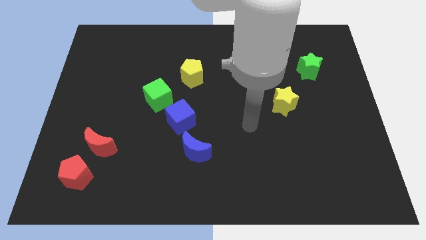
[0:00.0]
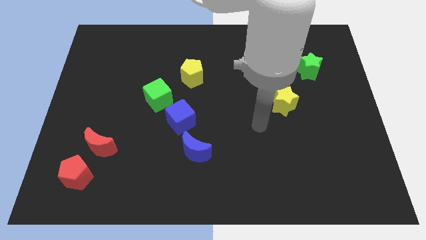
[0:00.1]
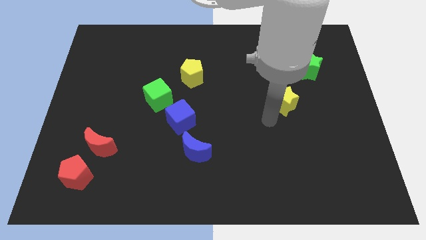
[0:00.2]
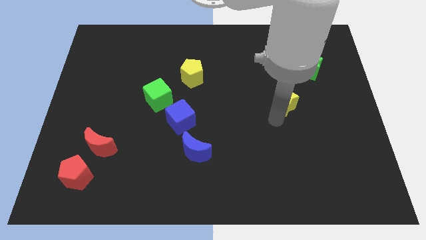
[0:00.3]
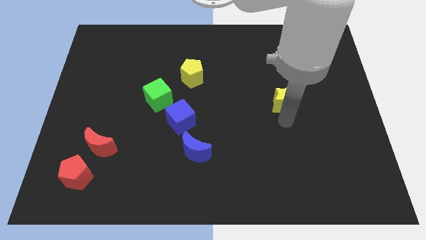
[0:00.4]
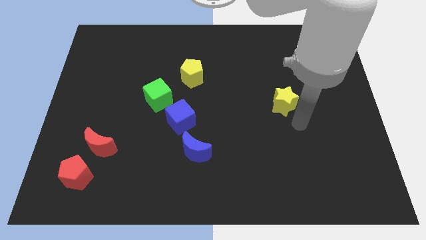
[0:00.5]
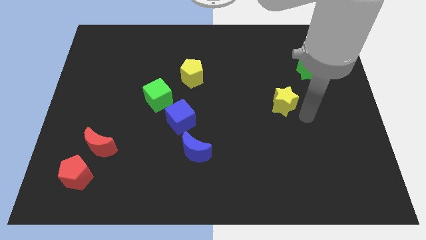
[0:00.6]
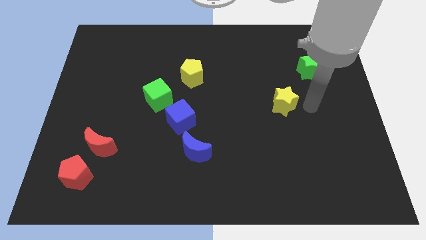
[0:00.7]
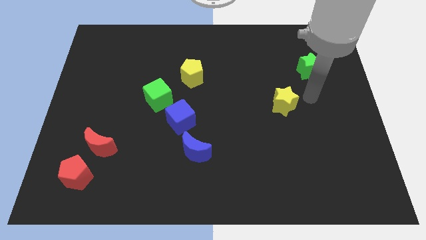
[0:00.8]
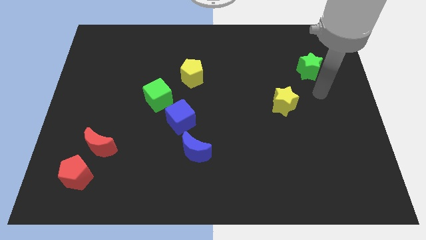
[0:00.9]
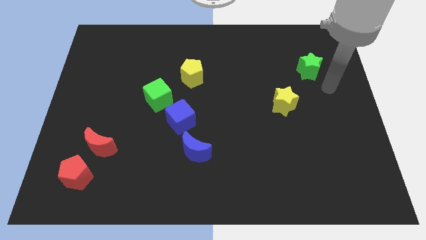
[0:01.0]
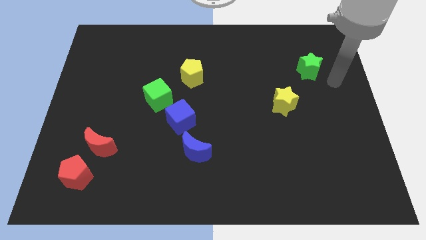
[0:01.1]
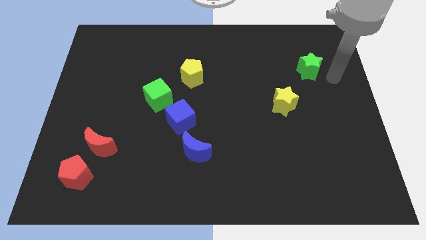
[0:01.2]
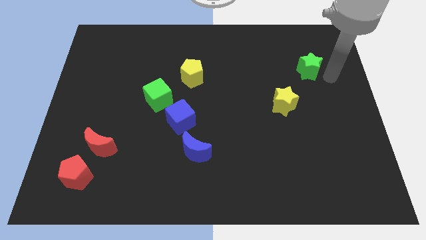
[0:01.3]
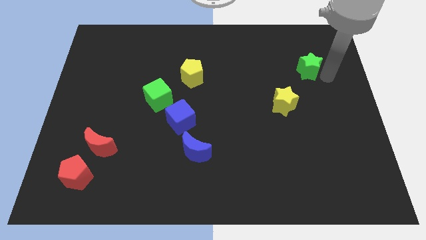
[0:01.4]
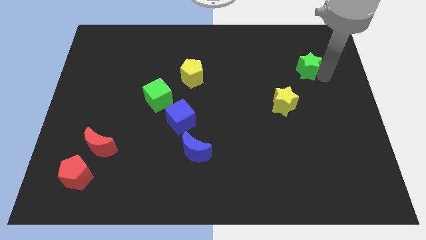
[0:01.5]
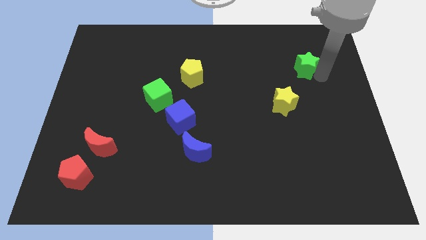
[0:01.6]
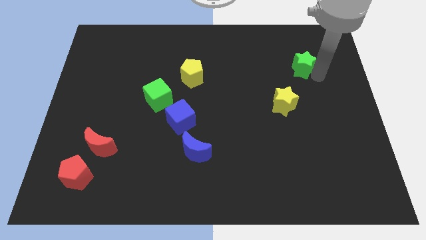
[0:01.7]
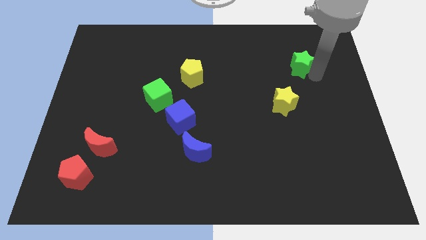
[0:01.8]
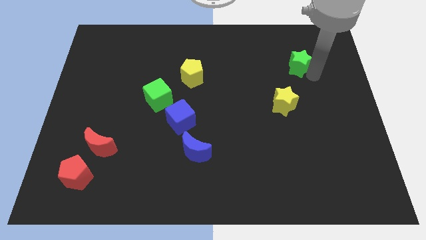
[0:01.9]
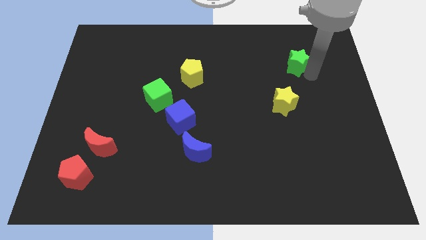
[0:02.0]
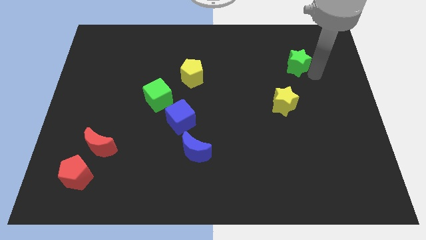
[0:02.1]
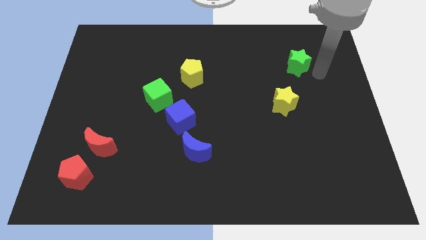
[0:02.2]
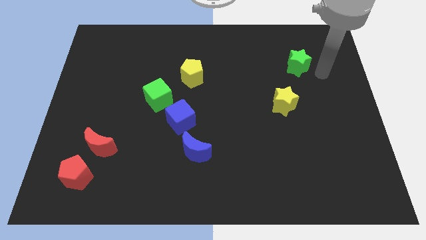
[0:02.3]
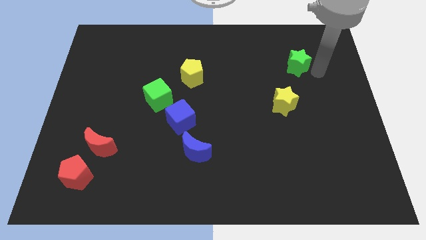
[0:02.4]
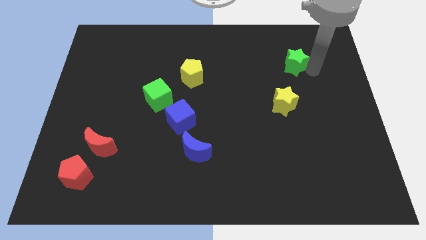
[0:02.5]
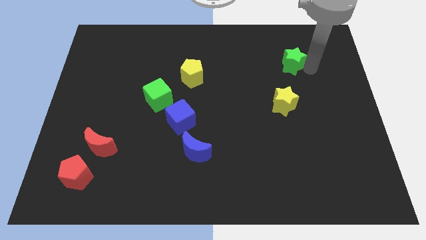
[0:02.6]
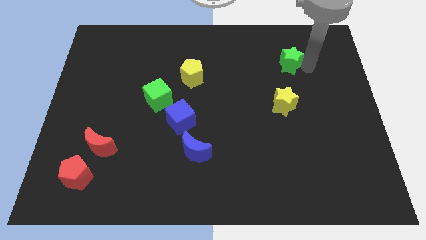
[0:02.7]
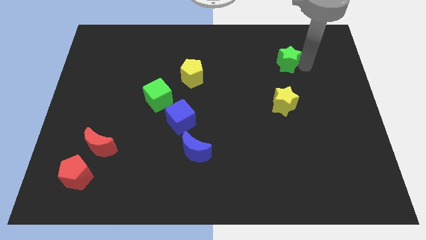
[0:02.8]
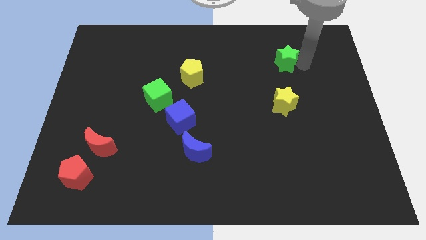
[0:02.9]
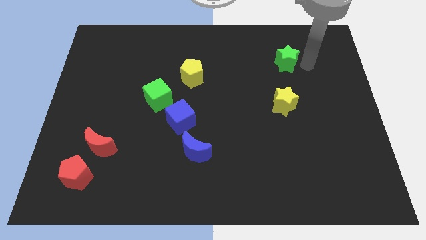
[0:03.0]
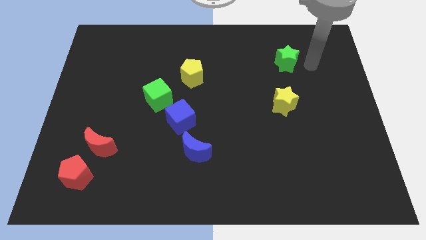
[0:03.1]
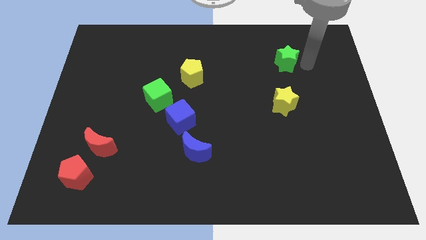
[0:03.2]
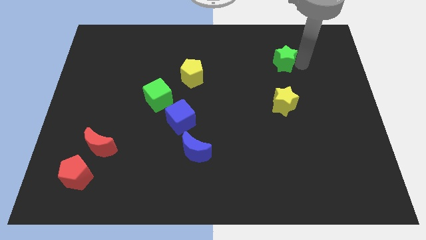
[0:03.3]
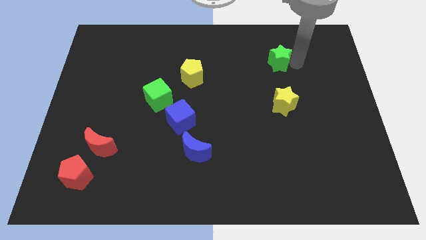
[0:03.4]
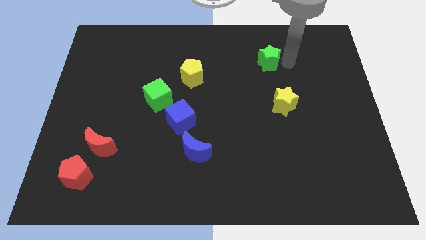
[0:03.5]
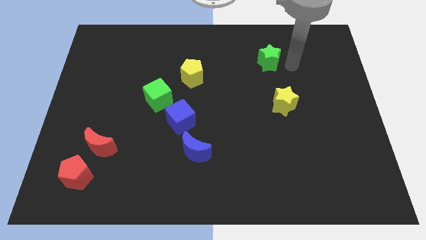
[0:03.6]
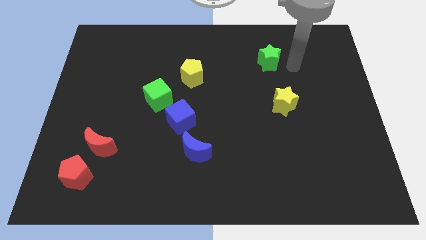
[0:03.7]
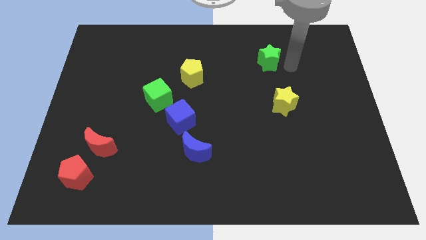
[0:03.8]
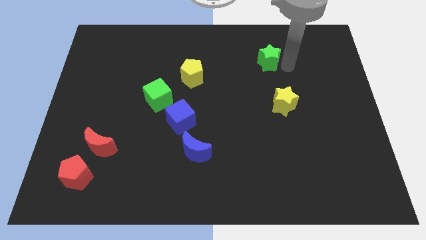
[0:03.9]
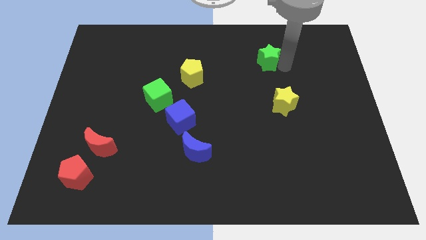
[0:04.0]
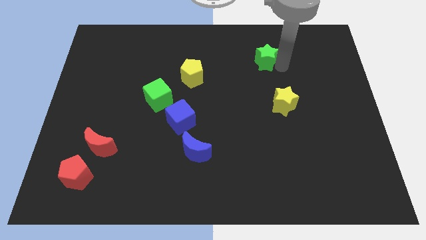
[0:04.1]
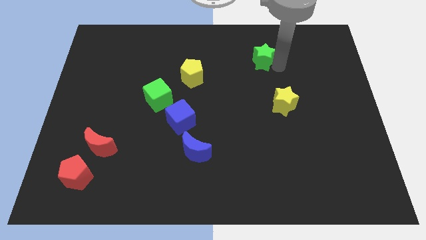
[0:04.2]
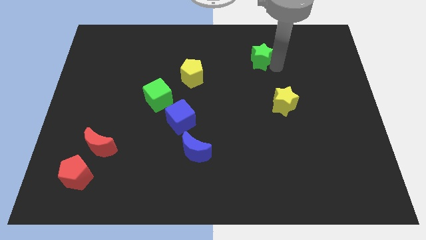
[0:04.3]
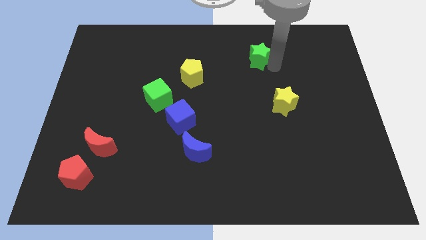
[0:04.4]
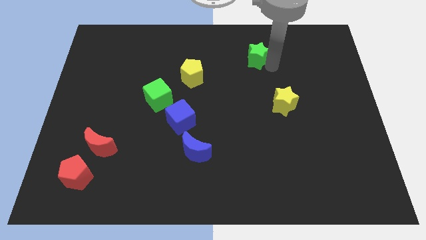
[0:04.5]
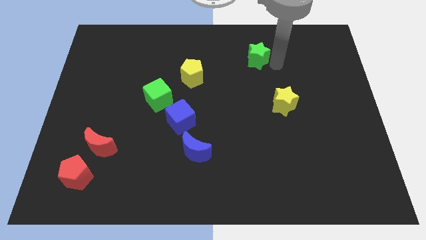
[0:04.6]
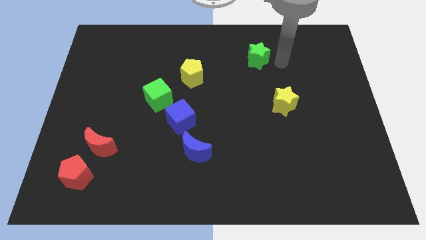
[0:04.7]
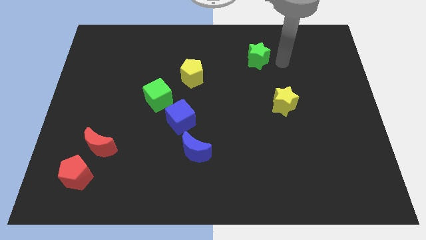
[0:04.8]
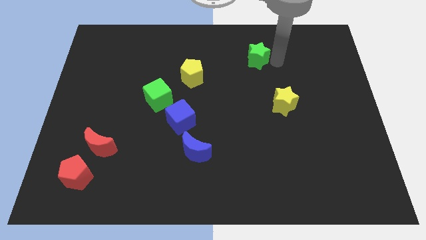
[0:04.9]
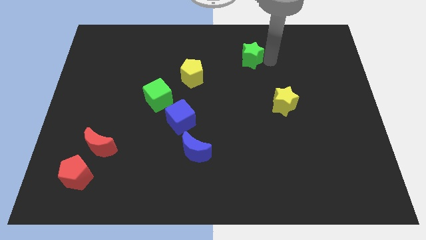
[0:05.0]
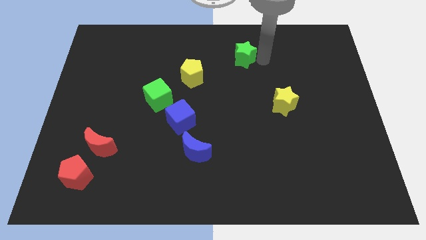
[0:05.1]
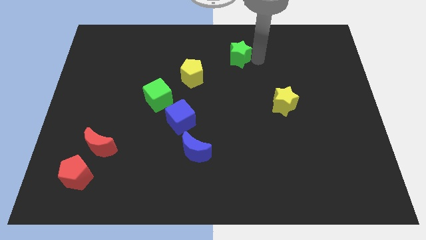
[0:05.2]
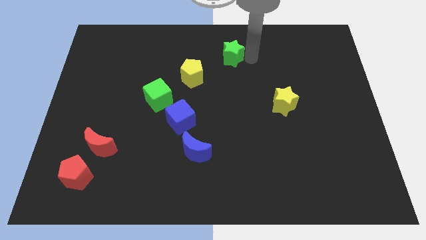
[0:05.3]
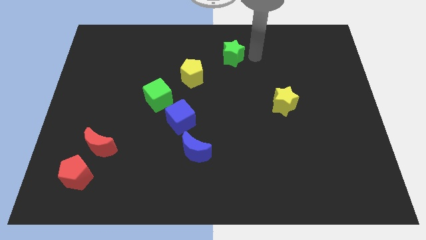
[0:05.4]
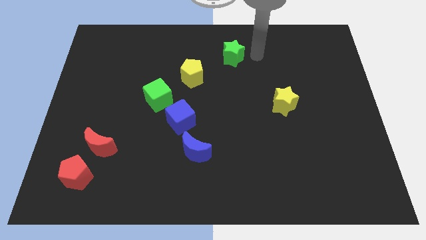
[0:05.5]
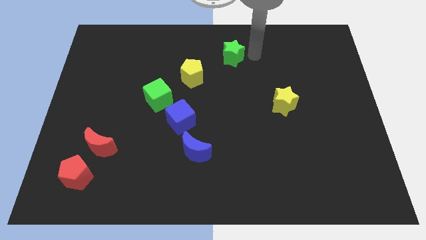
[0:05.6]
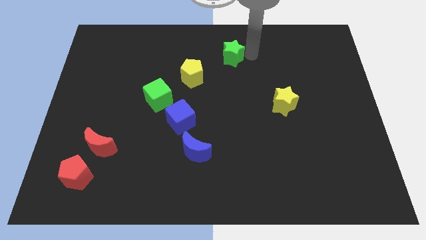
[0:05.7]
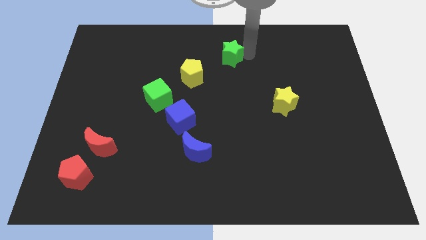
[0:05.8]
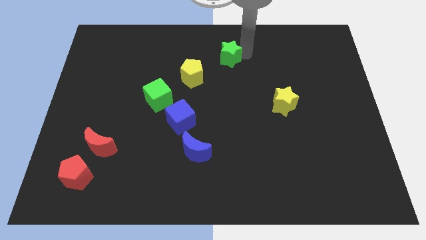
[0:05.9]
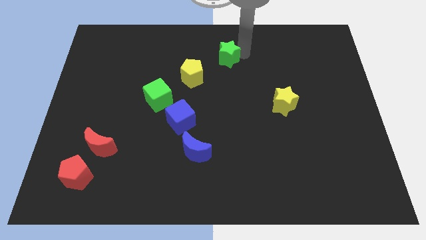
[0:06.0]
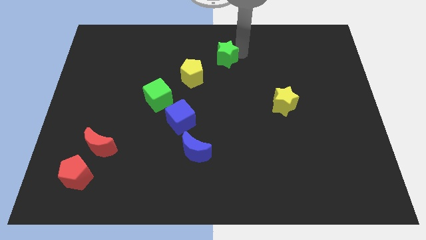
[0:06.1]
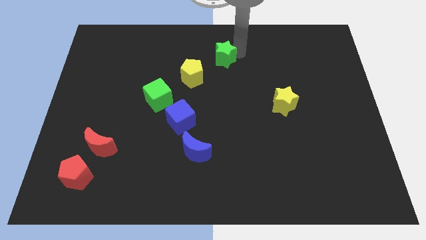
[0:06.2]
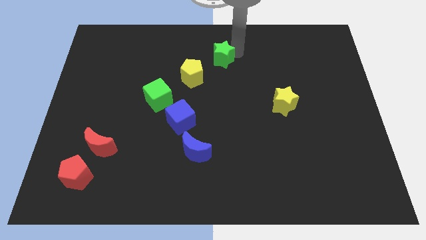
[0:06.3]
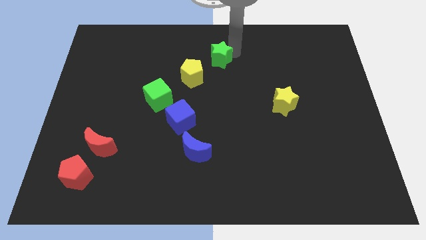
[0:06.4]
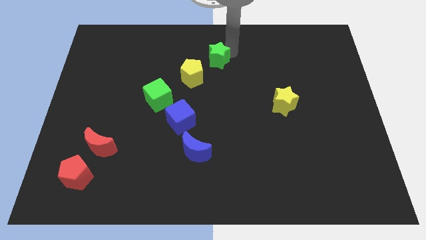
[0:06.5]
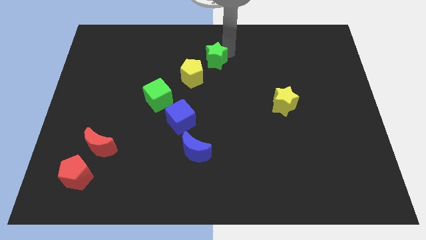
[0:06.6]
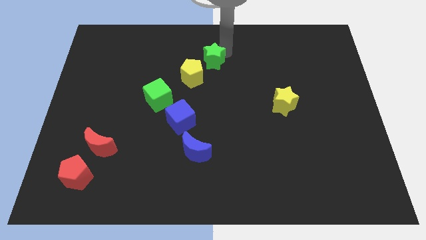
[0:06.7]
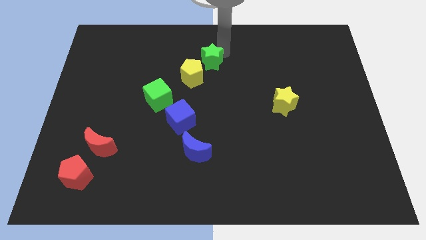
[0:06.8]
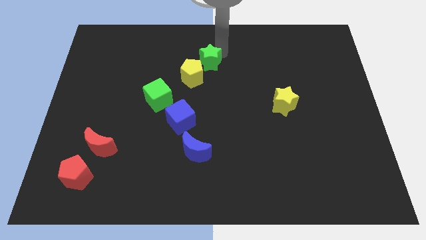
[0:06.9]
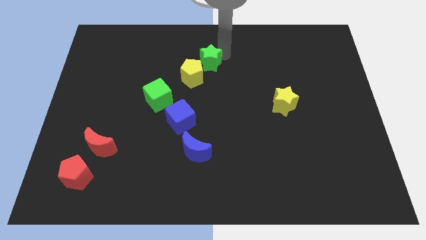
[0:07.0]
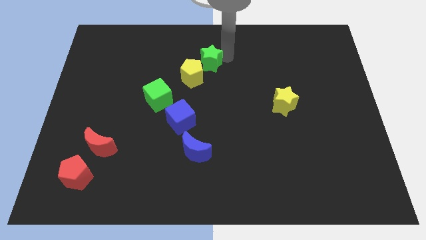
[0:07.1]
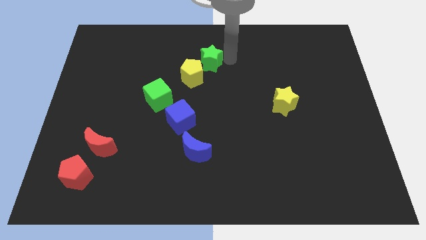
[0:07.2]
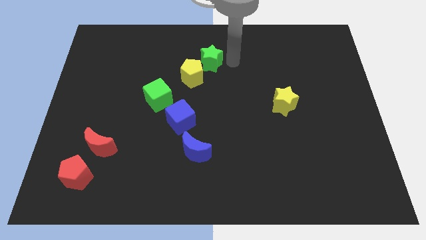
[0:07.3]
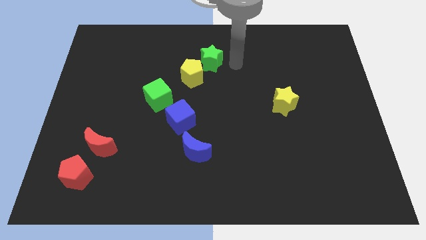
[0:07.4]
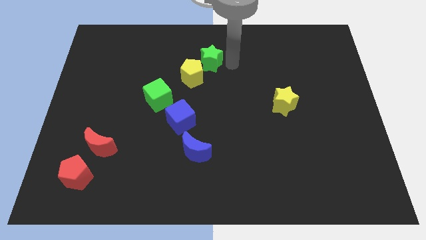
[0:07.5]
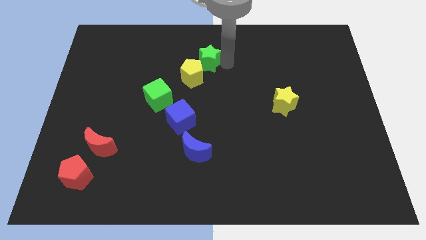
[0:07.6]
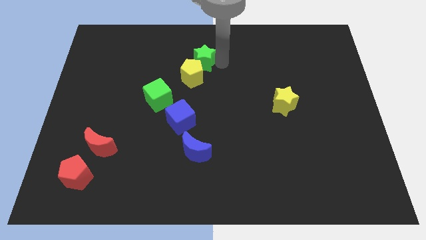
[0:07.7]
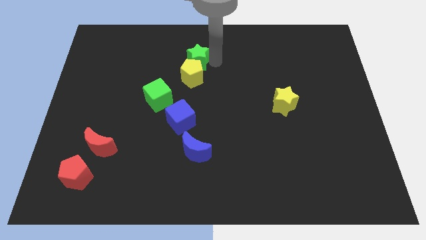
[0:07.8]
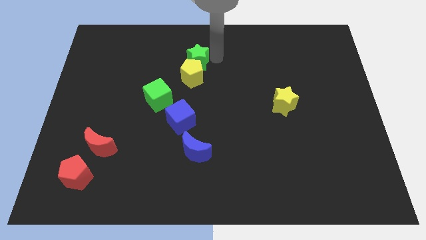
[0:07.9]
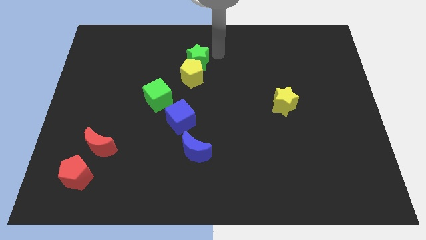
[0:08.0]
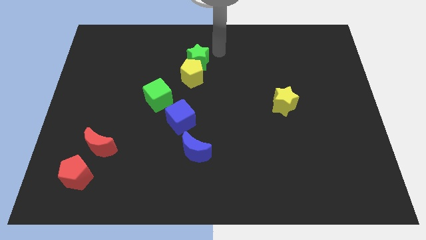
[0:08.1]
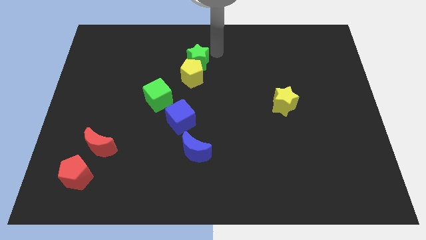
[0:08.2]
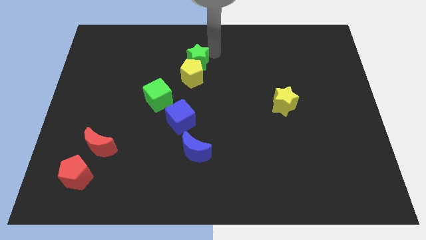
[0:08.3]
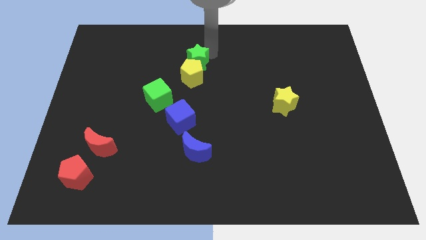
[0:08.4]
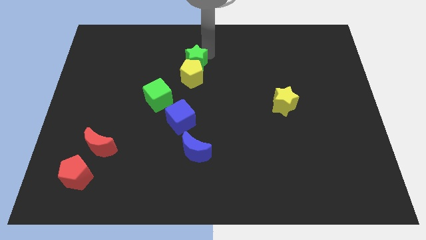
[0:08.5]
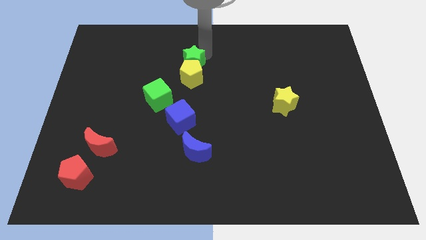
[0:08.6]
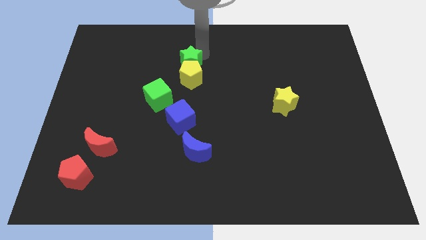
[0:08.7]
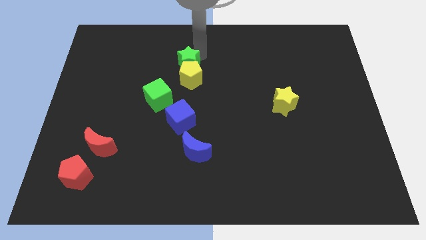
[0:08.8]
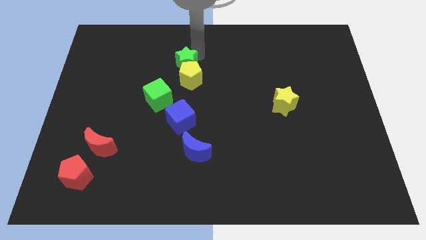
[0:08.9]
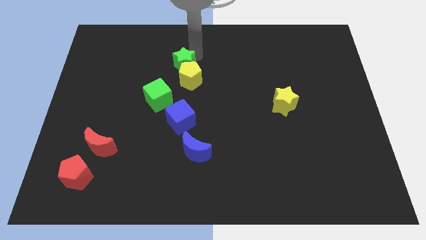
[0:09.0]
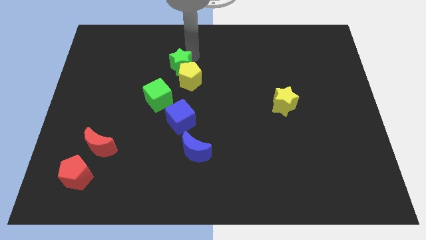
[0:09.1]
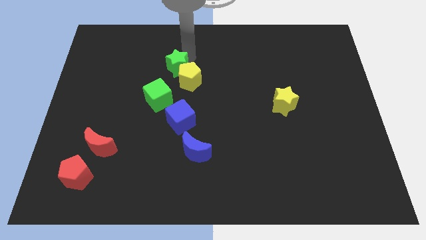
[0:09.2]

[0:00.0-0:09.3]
slide the green star just left of the yellow pentagon
